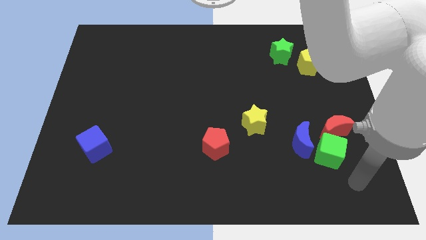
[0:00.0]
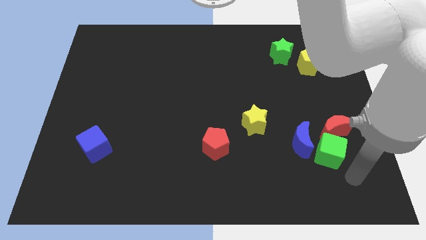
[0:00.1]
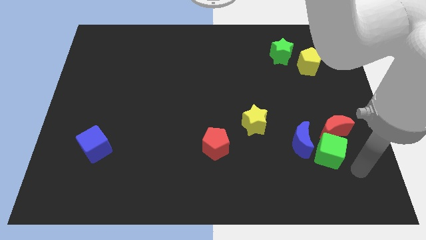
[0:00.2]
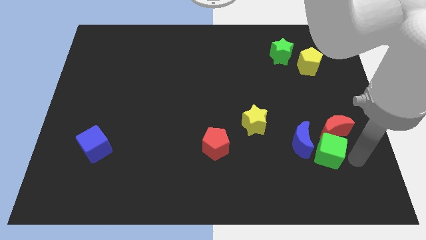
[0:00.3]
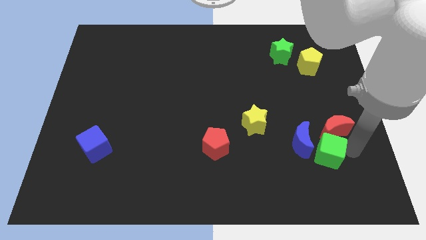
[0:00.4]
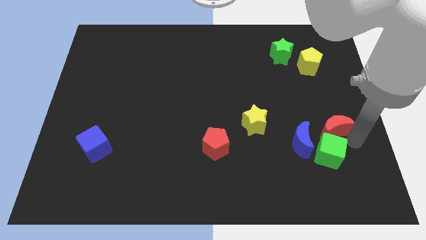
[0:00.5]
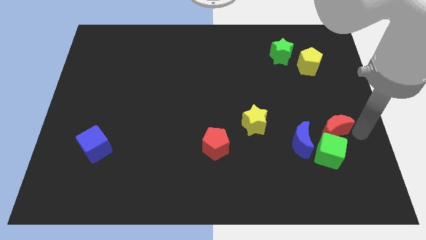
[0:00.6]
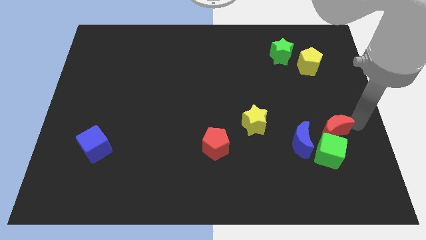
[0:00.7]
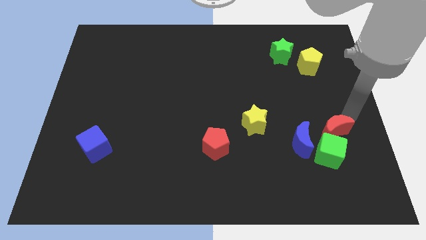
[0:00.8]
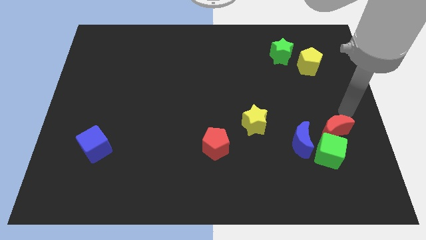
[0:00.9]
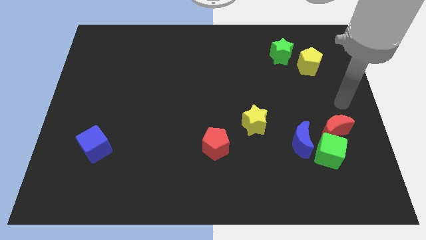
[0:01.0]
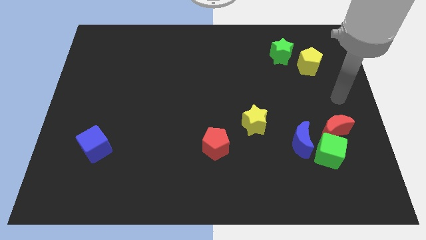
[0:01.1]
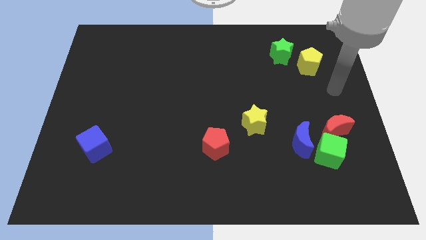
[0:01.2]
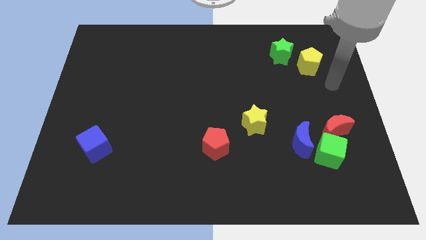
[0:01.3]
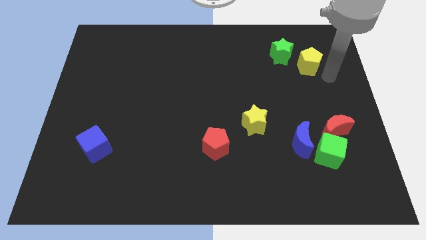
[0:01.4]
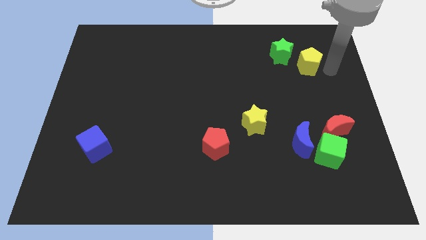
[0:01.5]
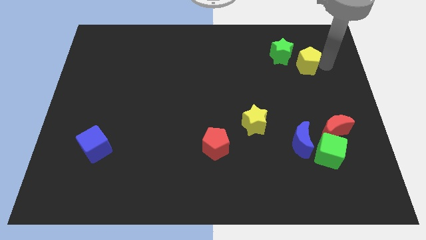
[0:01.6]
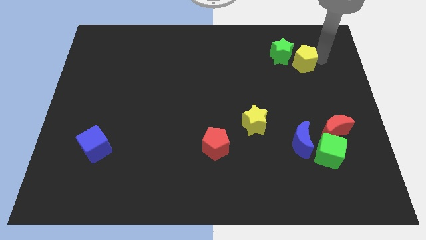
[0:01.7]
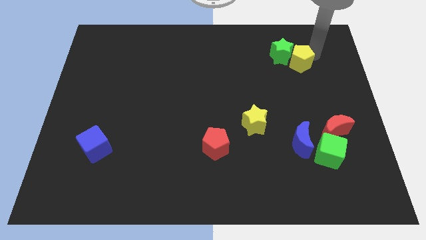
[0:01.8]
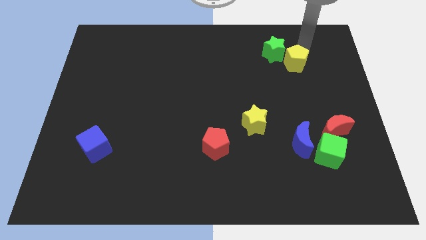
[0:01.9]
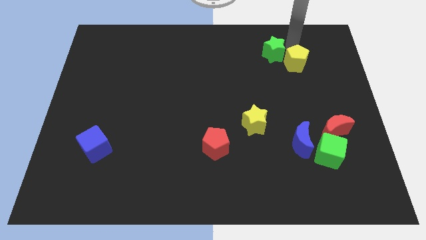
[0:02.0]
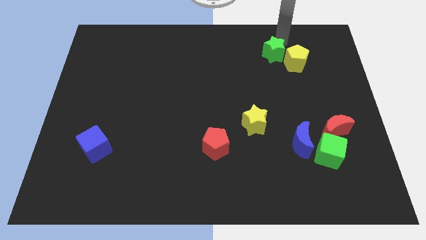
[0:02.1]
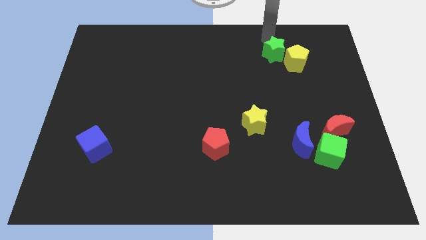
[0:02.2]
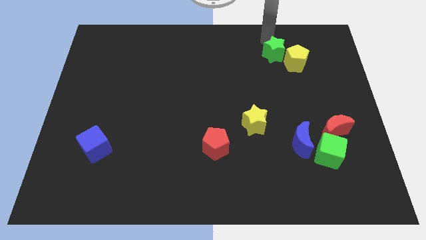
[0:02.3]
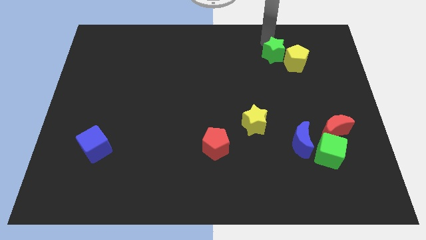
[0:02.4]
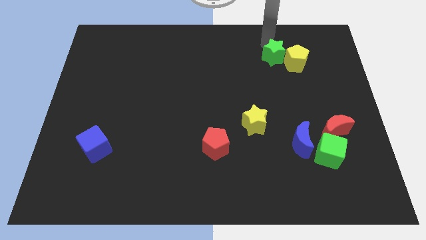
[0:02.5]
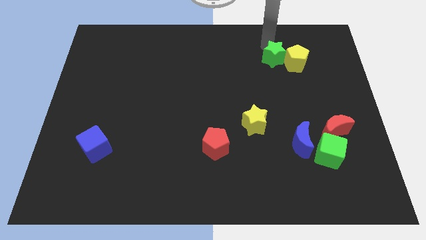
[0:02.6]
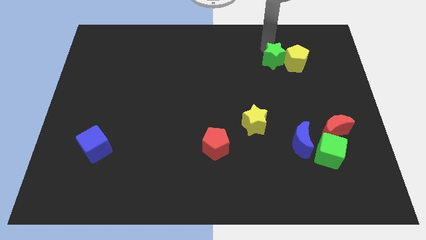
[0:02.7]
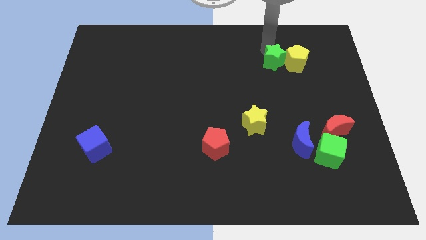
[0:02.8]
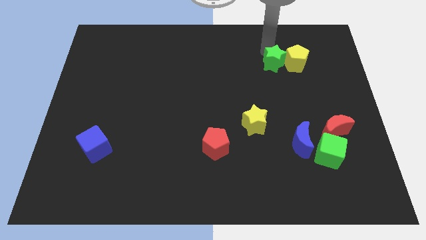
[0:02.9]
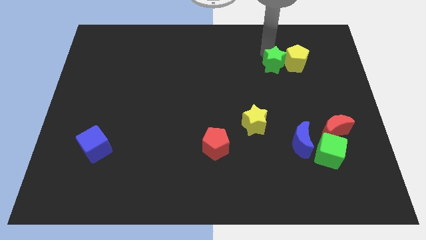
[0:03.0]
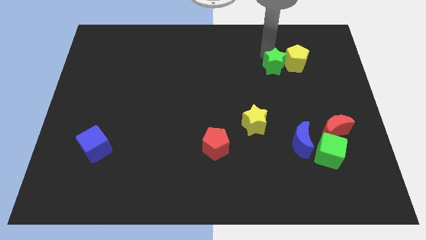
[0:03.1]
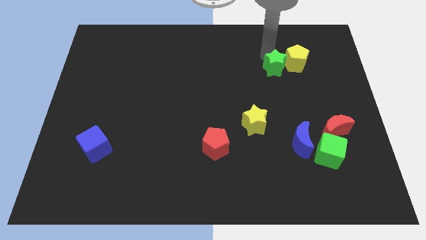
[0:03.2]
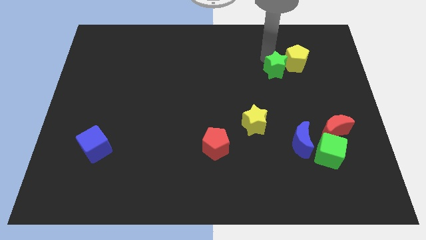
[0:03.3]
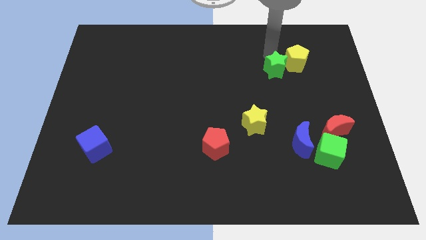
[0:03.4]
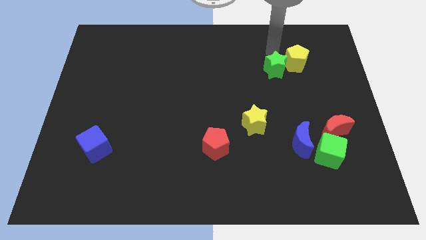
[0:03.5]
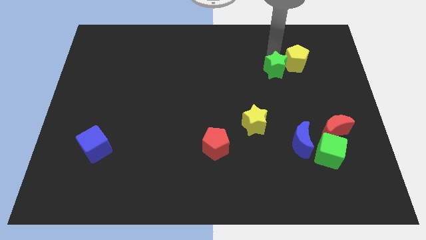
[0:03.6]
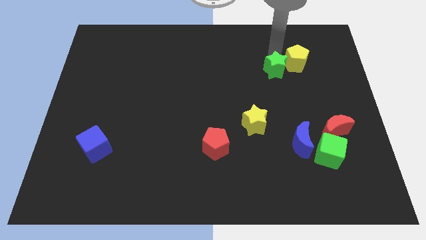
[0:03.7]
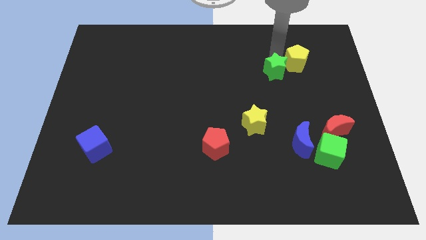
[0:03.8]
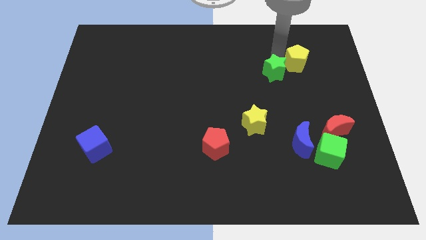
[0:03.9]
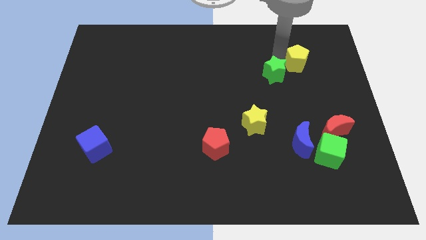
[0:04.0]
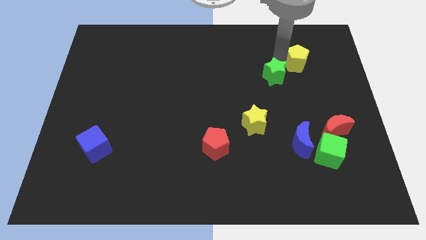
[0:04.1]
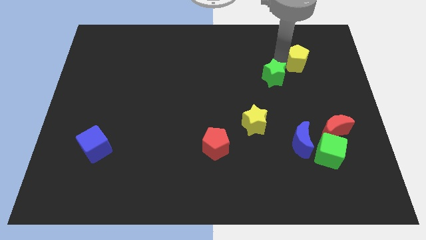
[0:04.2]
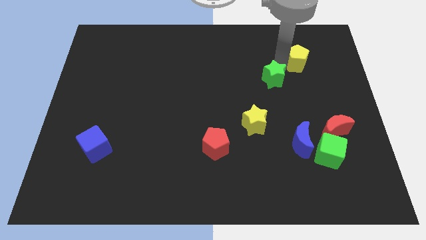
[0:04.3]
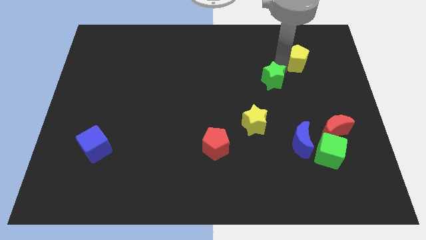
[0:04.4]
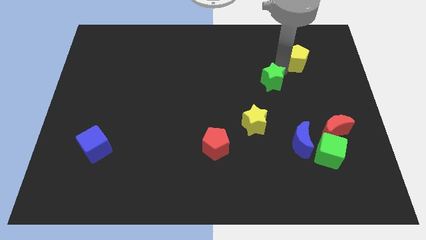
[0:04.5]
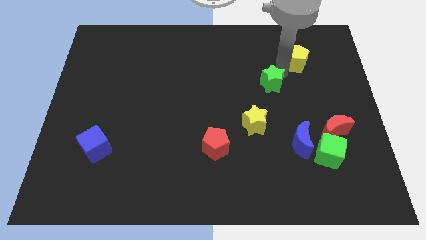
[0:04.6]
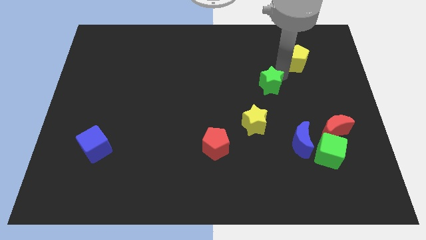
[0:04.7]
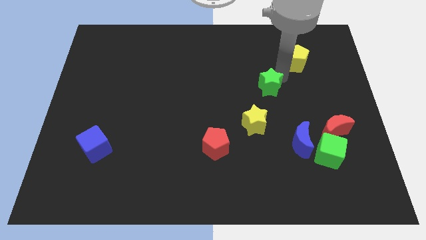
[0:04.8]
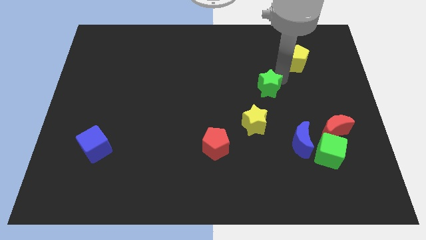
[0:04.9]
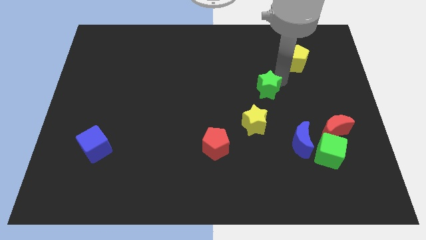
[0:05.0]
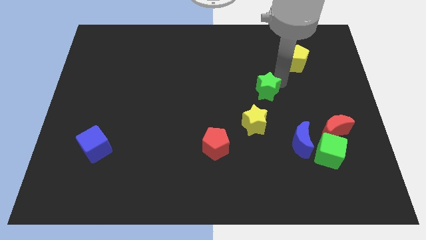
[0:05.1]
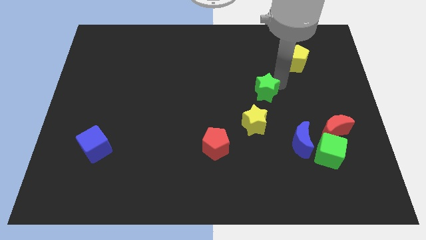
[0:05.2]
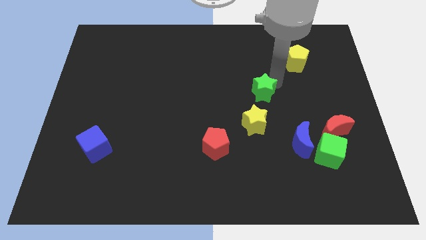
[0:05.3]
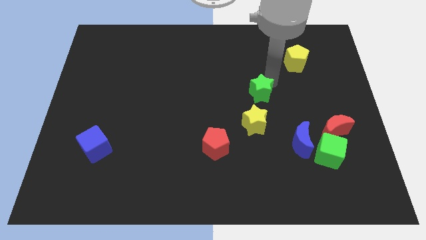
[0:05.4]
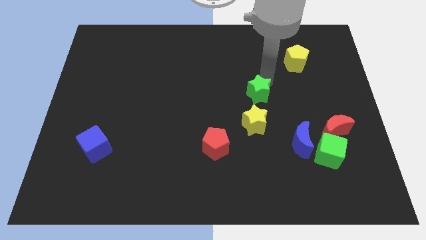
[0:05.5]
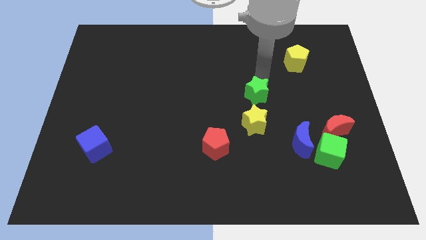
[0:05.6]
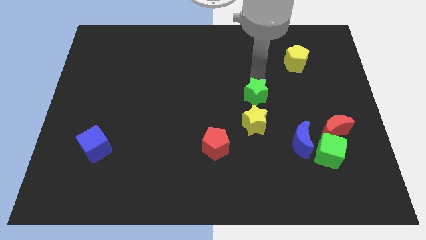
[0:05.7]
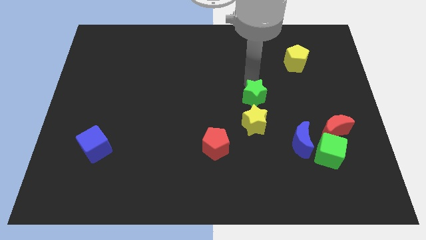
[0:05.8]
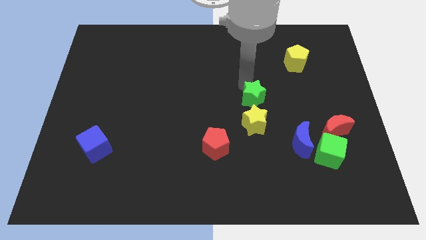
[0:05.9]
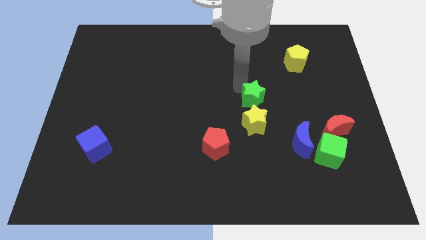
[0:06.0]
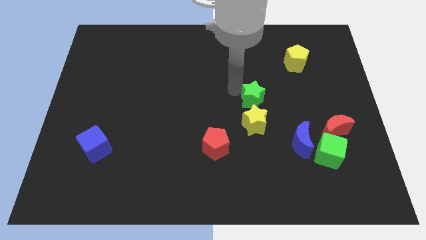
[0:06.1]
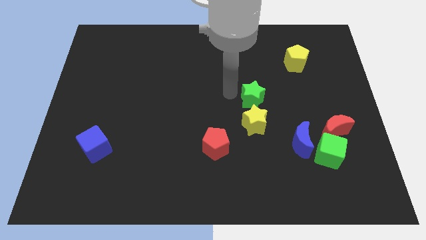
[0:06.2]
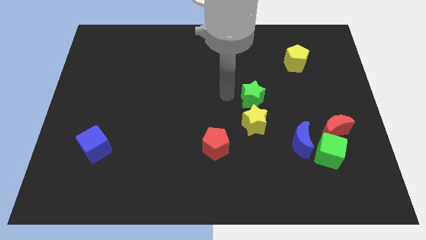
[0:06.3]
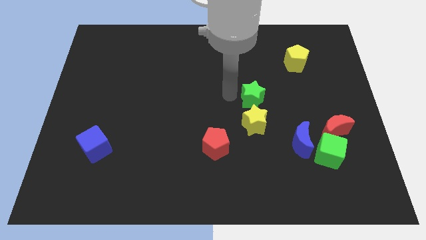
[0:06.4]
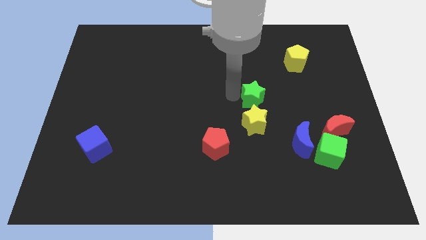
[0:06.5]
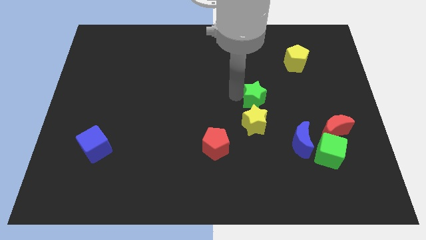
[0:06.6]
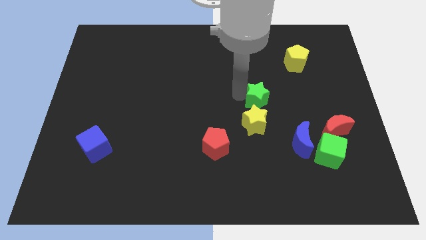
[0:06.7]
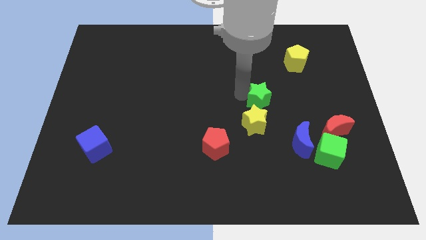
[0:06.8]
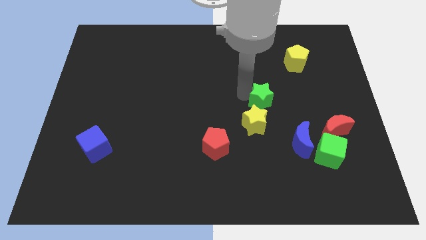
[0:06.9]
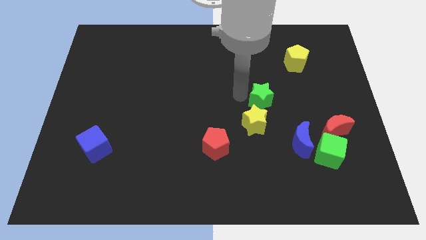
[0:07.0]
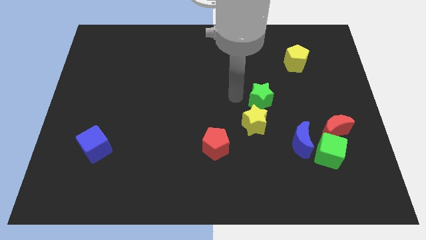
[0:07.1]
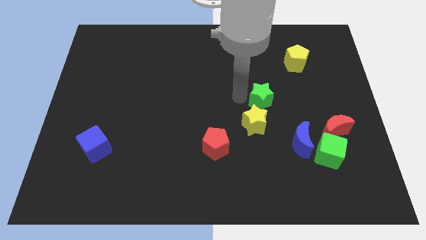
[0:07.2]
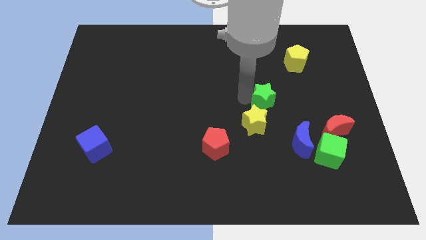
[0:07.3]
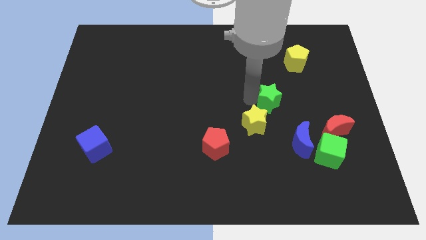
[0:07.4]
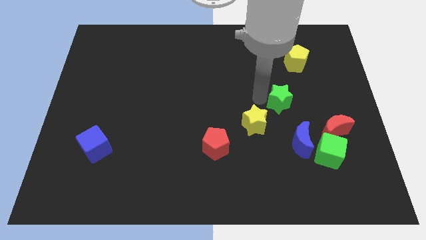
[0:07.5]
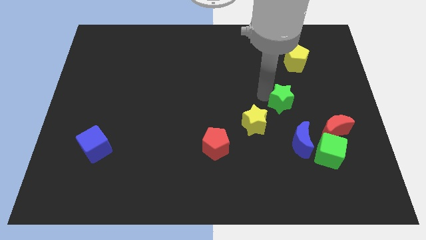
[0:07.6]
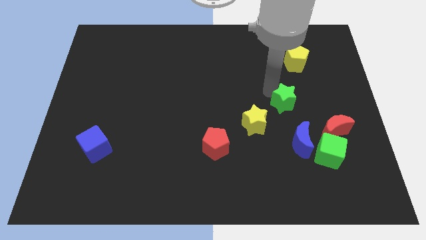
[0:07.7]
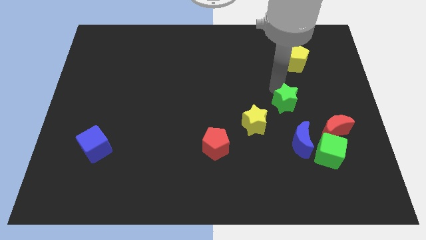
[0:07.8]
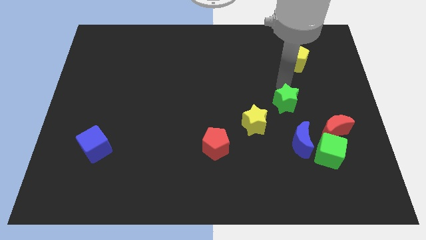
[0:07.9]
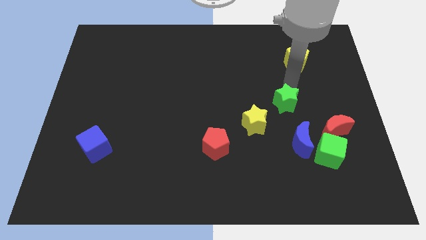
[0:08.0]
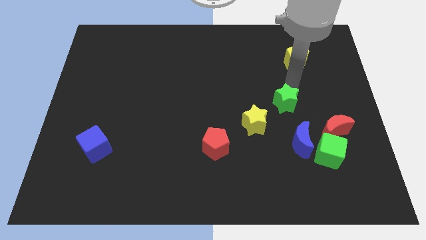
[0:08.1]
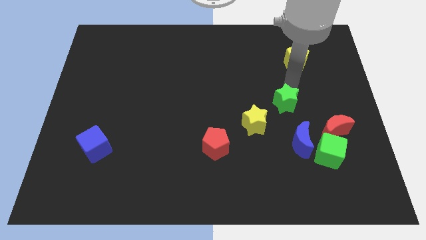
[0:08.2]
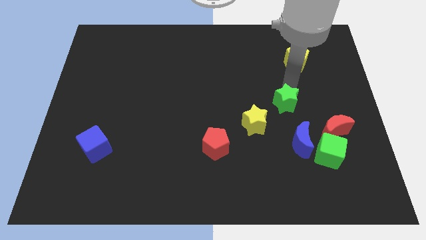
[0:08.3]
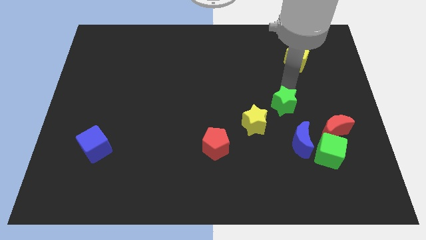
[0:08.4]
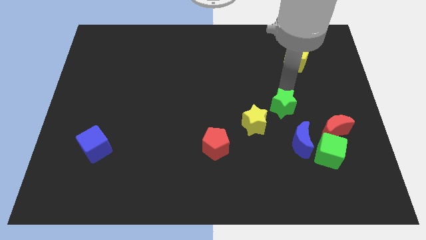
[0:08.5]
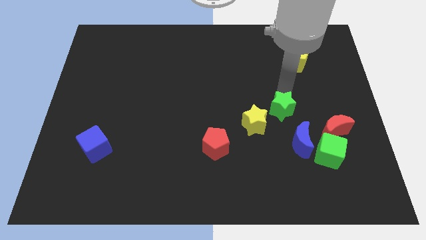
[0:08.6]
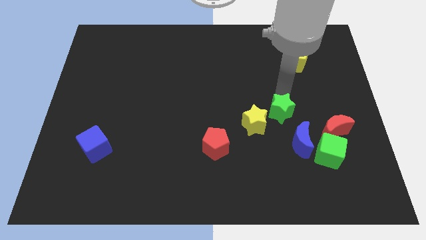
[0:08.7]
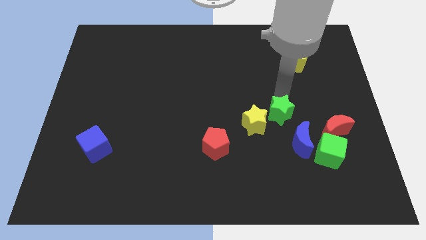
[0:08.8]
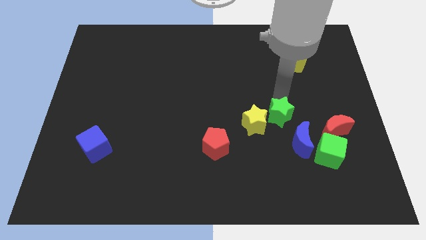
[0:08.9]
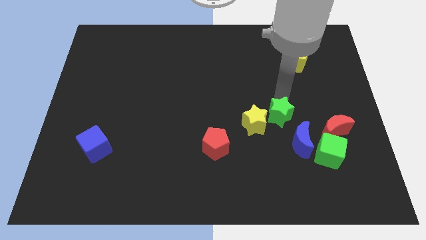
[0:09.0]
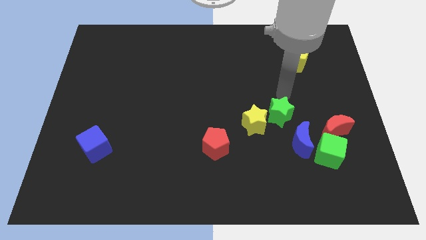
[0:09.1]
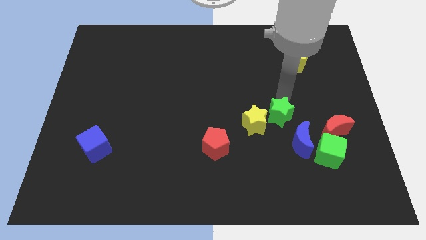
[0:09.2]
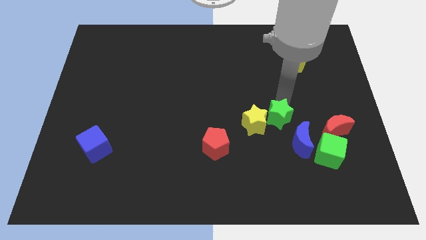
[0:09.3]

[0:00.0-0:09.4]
slide the green star downwards
